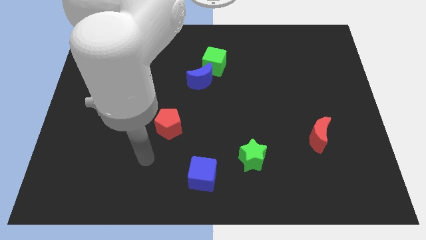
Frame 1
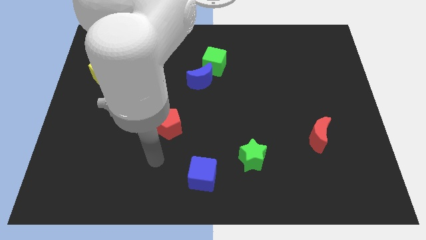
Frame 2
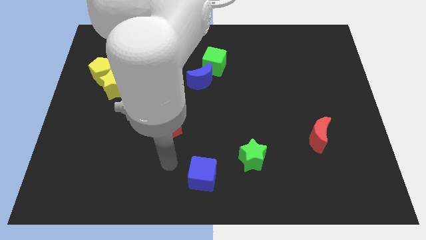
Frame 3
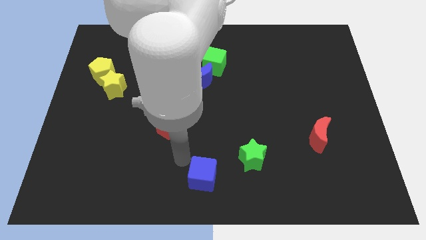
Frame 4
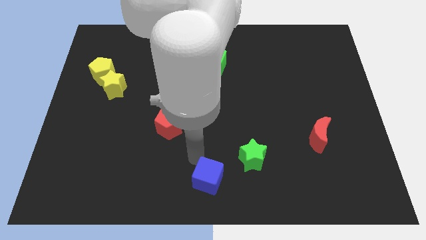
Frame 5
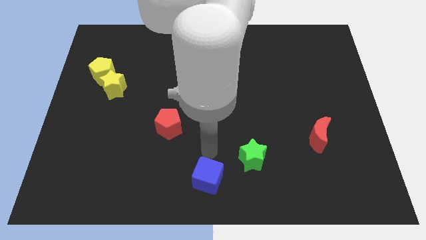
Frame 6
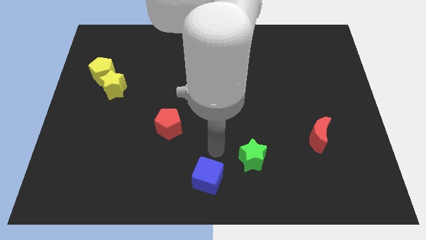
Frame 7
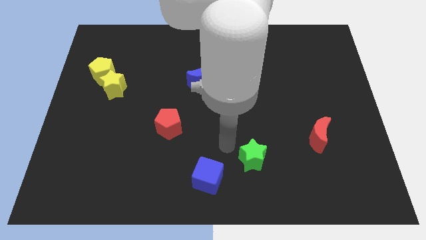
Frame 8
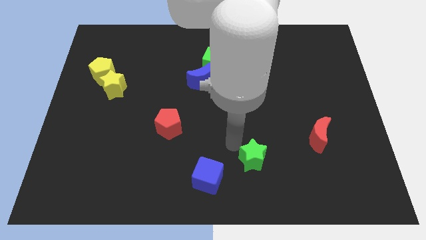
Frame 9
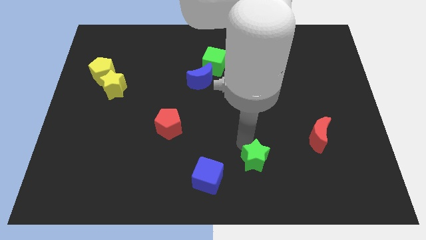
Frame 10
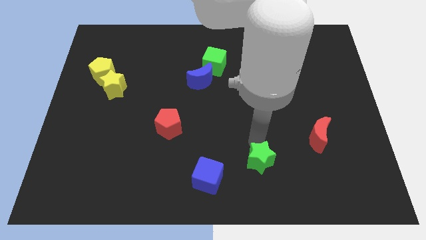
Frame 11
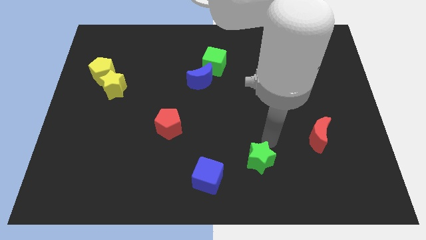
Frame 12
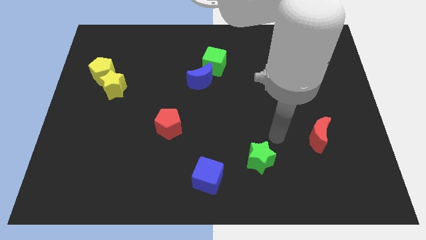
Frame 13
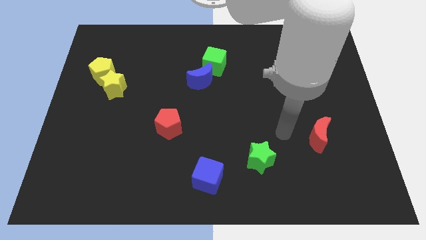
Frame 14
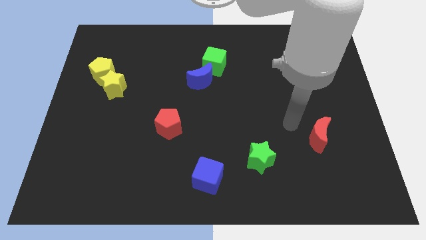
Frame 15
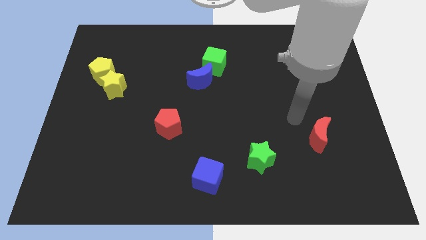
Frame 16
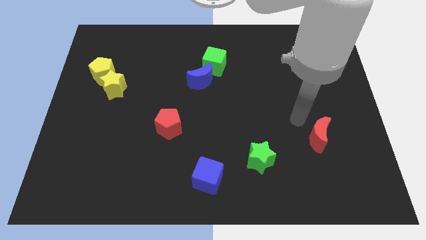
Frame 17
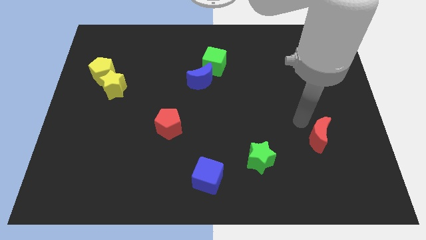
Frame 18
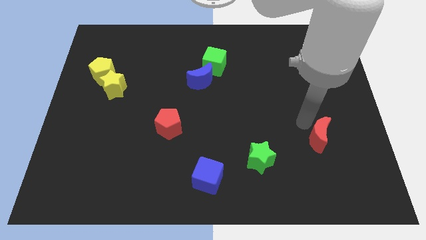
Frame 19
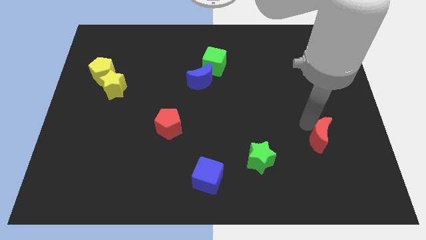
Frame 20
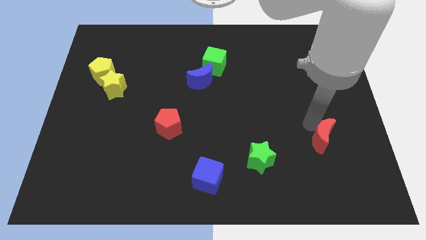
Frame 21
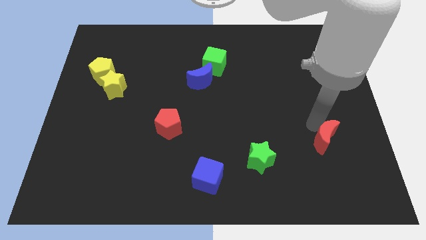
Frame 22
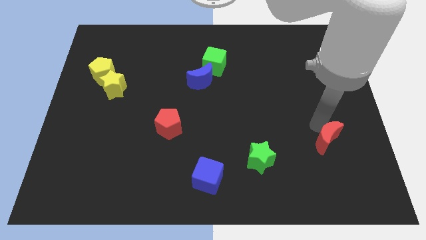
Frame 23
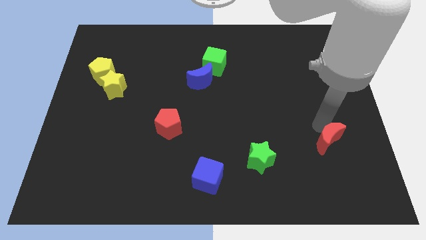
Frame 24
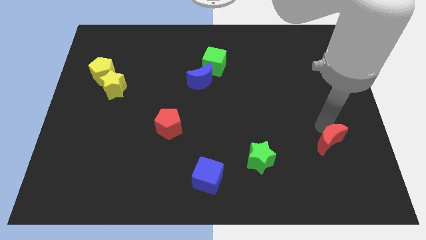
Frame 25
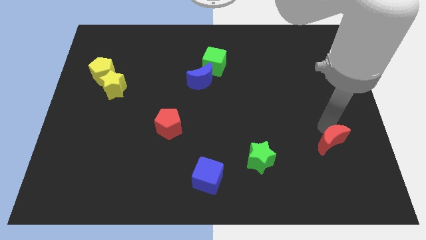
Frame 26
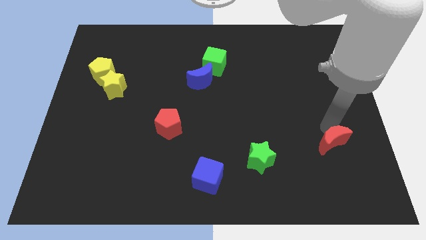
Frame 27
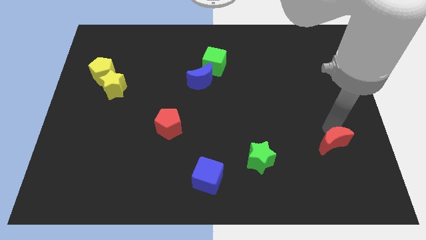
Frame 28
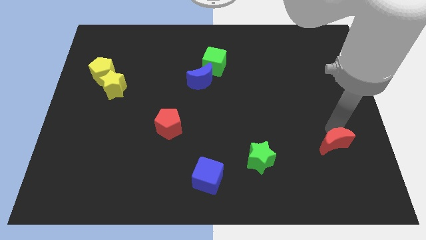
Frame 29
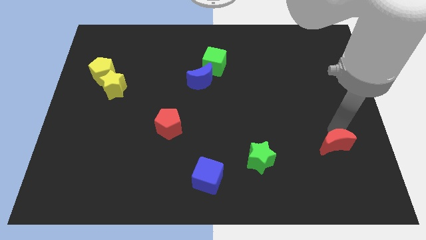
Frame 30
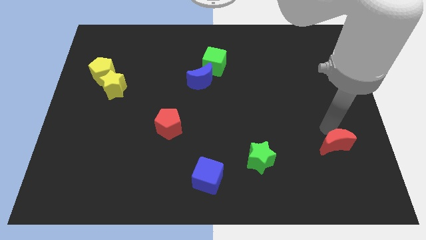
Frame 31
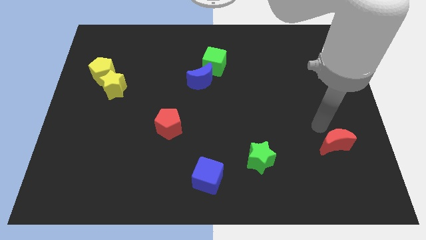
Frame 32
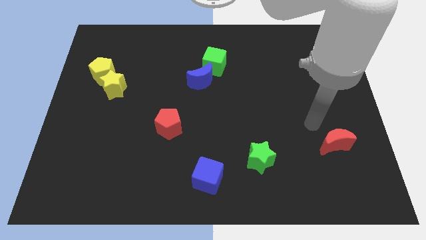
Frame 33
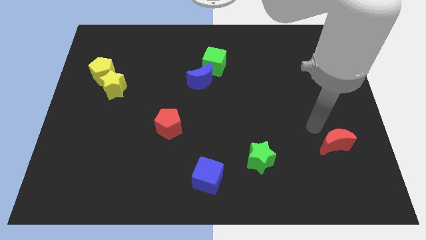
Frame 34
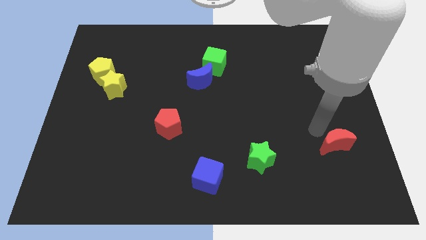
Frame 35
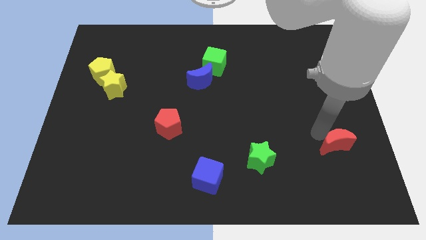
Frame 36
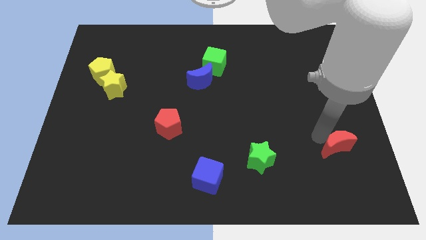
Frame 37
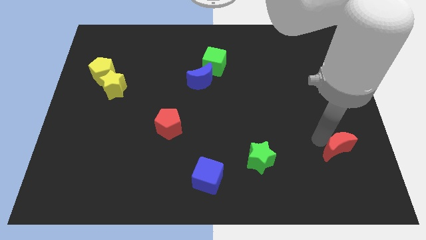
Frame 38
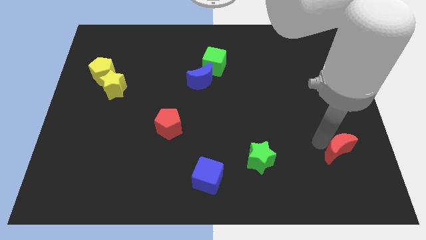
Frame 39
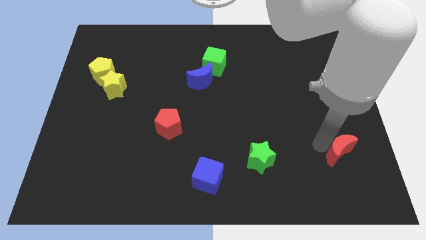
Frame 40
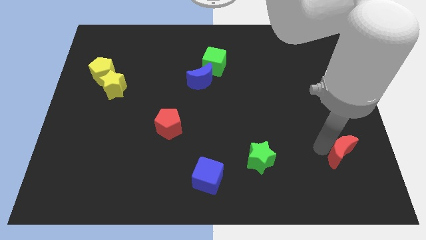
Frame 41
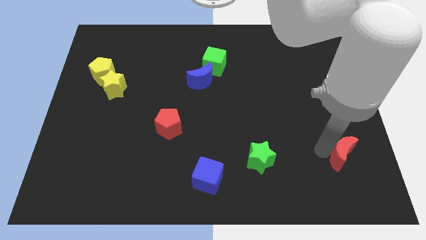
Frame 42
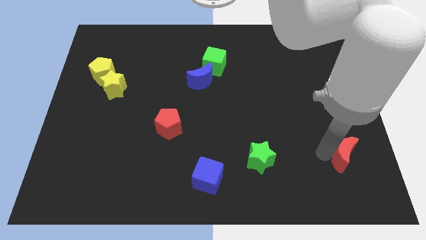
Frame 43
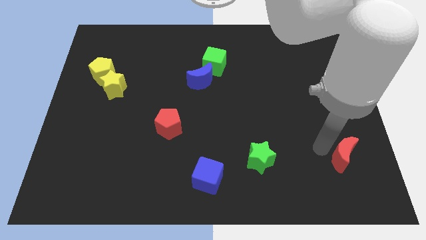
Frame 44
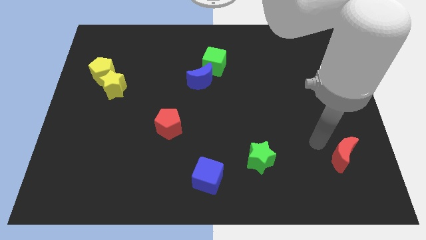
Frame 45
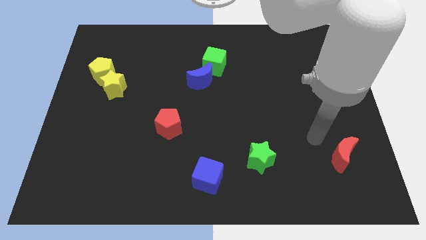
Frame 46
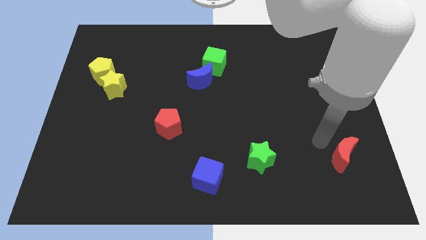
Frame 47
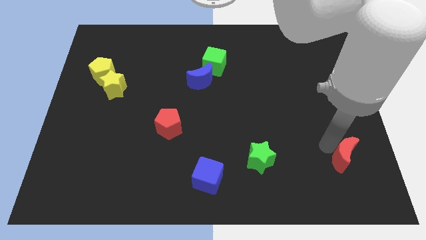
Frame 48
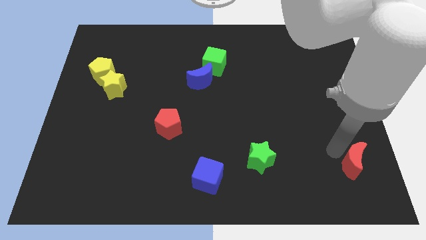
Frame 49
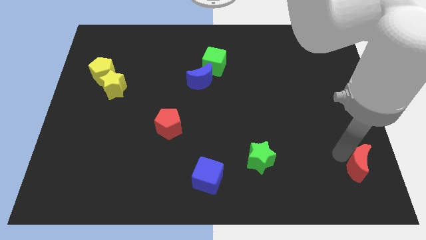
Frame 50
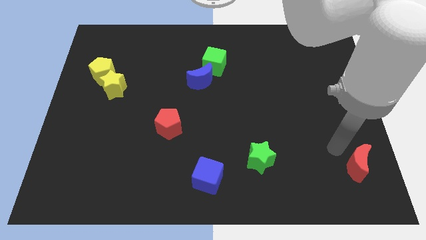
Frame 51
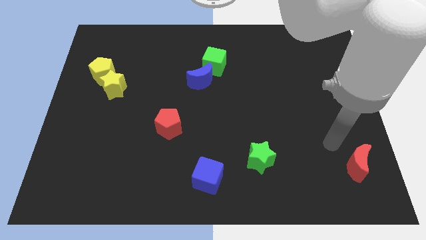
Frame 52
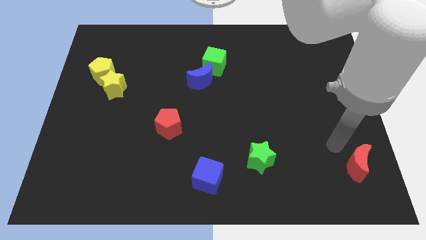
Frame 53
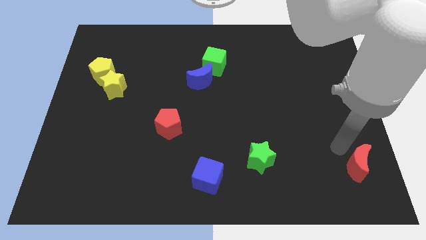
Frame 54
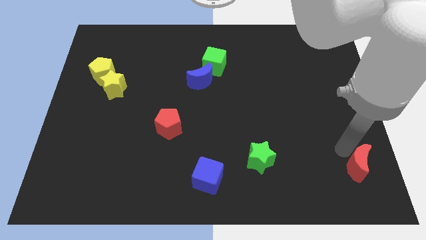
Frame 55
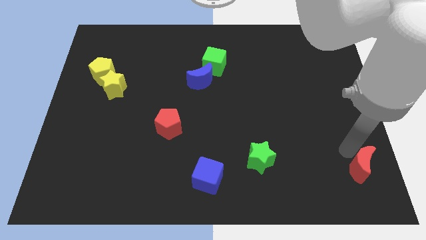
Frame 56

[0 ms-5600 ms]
move the red moon to the bottom right corner
